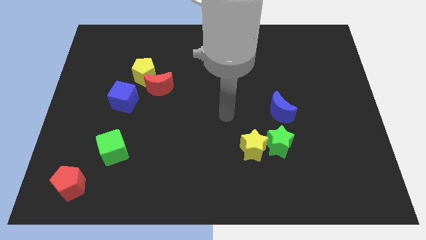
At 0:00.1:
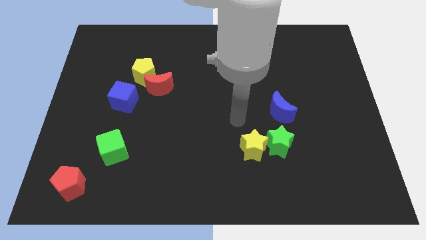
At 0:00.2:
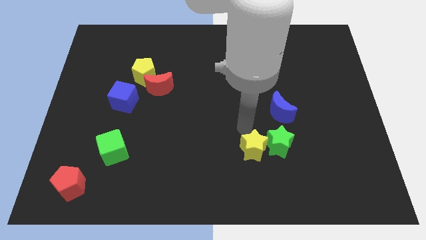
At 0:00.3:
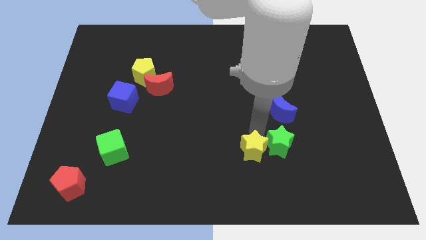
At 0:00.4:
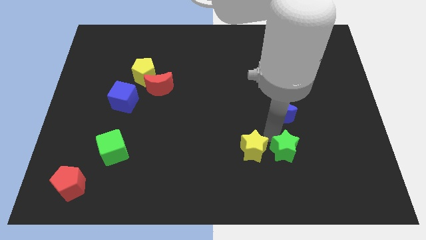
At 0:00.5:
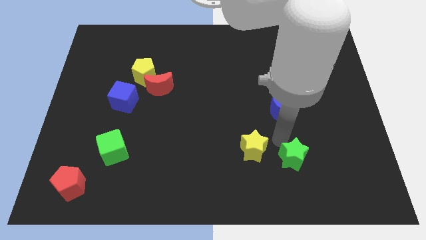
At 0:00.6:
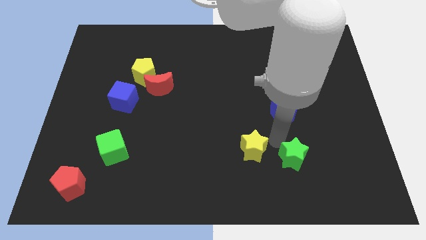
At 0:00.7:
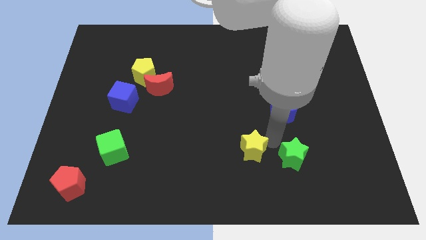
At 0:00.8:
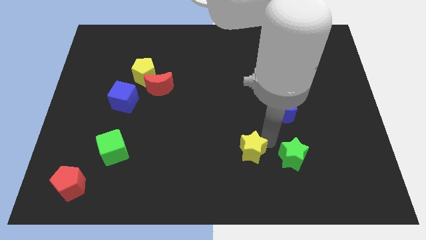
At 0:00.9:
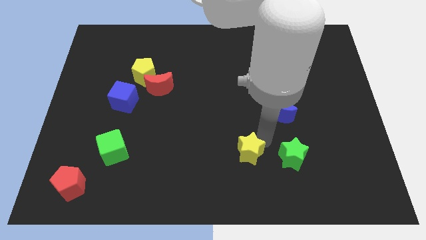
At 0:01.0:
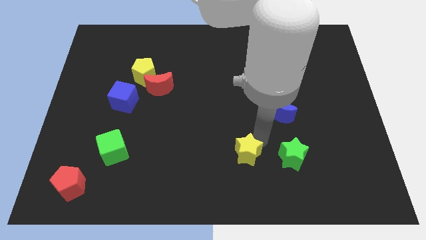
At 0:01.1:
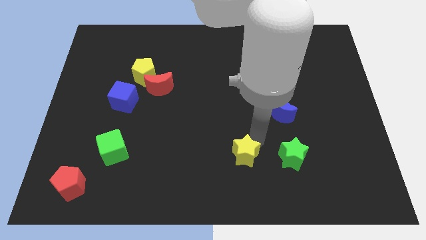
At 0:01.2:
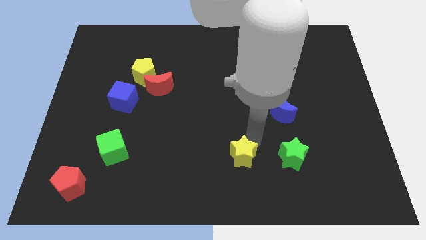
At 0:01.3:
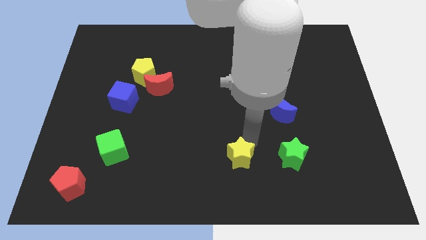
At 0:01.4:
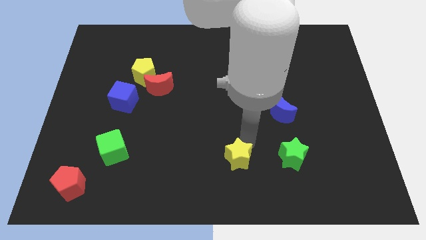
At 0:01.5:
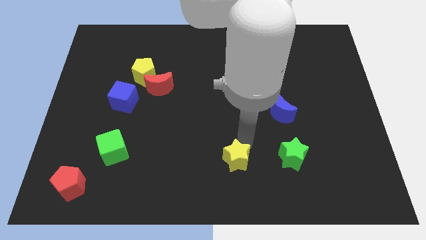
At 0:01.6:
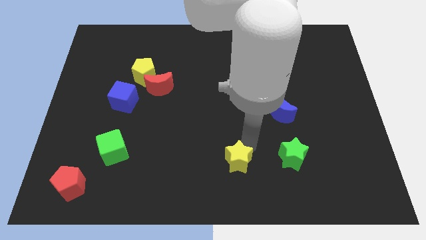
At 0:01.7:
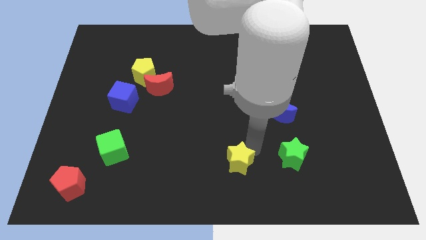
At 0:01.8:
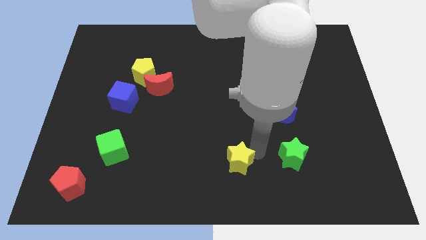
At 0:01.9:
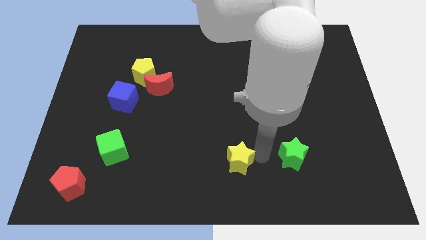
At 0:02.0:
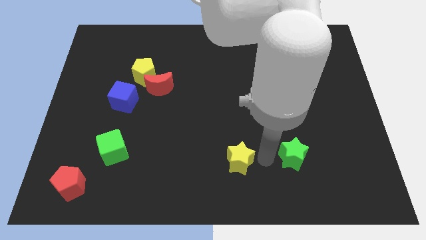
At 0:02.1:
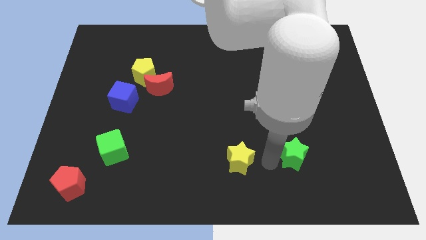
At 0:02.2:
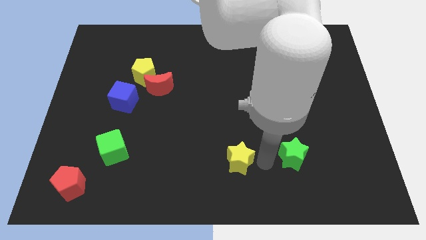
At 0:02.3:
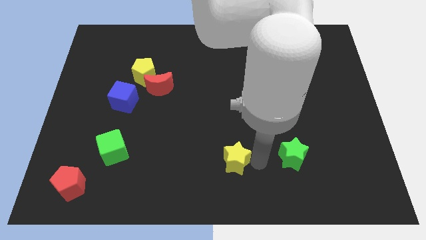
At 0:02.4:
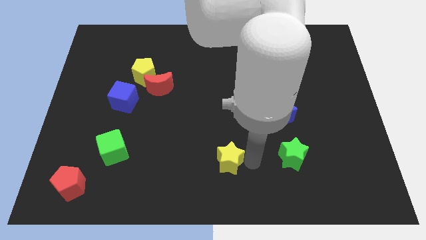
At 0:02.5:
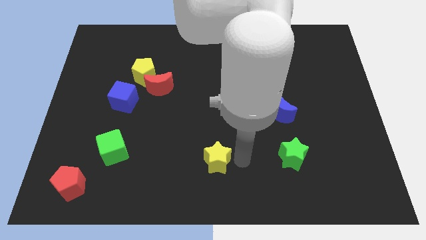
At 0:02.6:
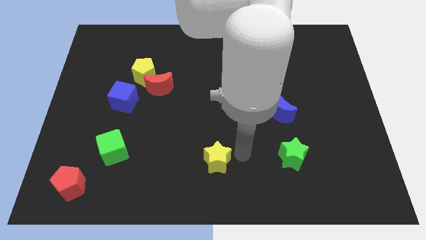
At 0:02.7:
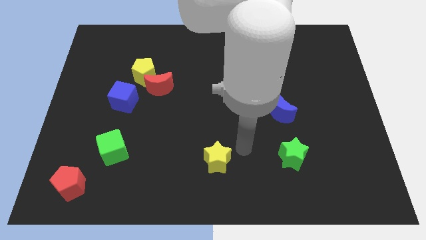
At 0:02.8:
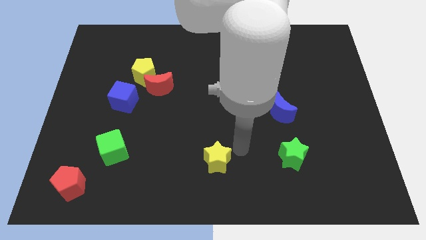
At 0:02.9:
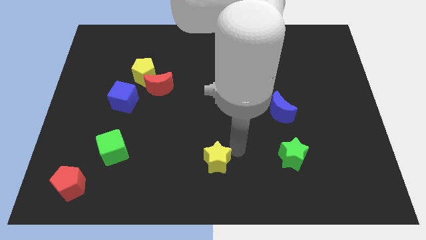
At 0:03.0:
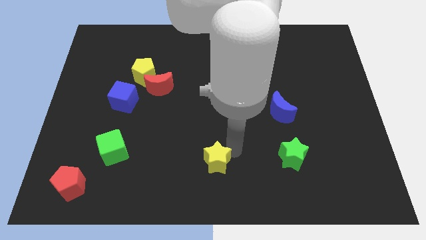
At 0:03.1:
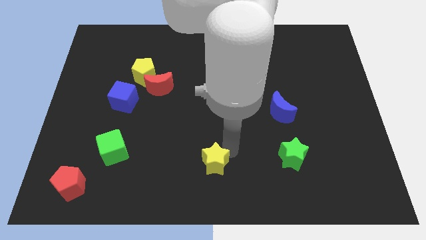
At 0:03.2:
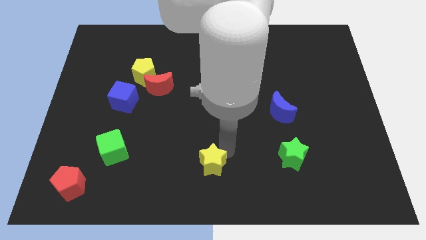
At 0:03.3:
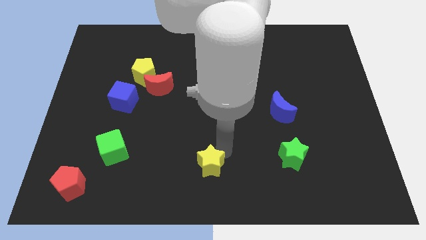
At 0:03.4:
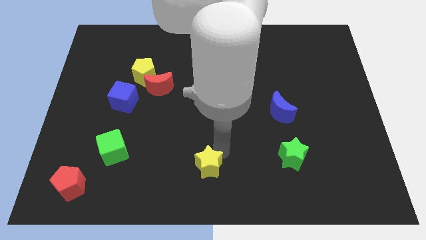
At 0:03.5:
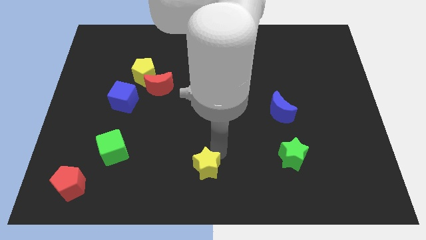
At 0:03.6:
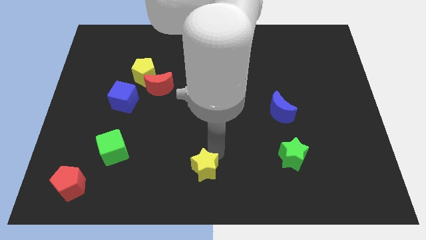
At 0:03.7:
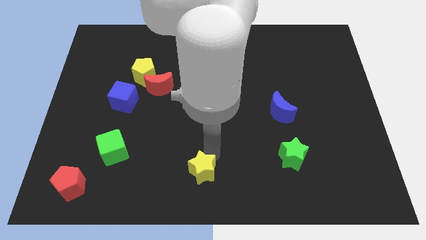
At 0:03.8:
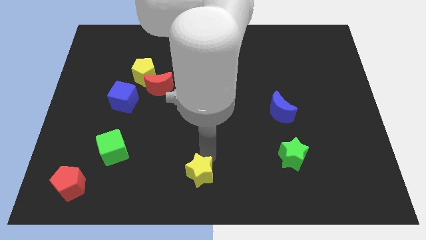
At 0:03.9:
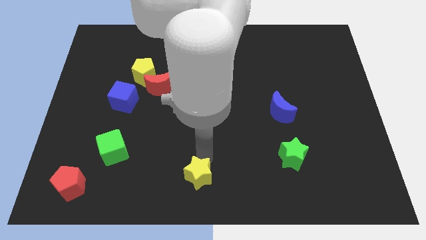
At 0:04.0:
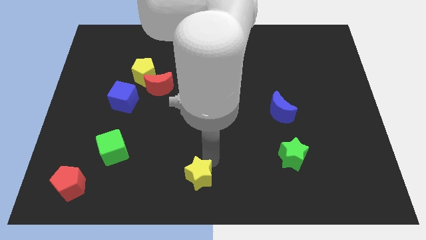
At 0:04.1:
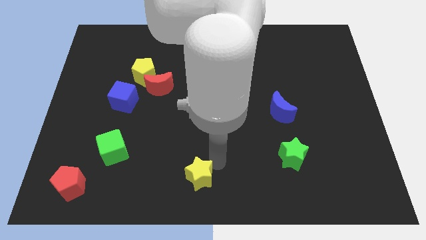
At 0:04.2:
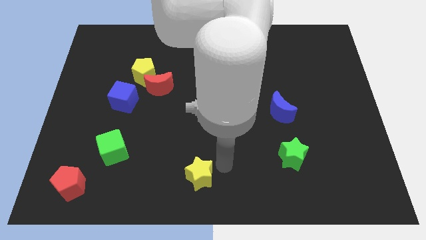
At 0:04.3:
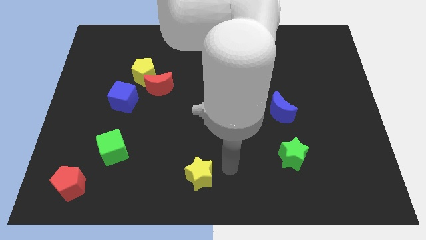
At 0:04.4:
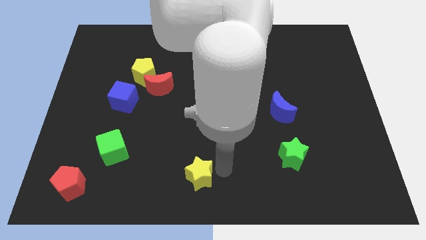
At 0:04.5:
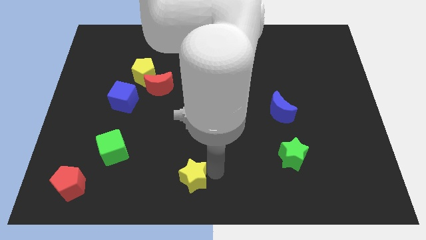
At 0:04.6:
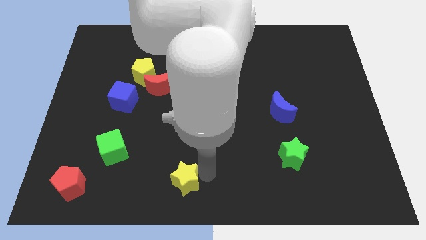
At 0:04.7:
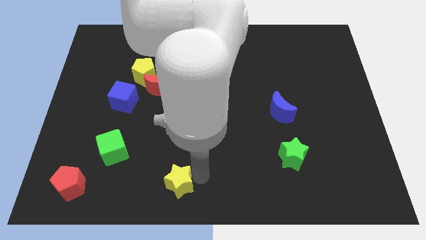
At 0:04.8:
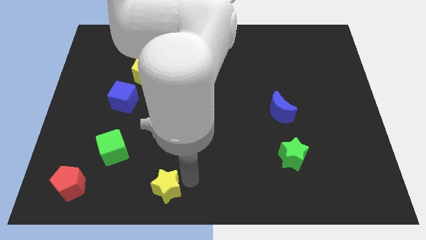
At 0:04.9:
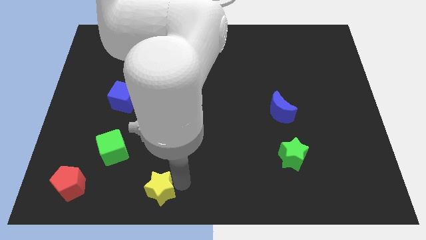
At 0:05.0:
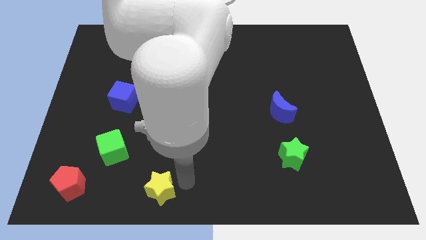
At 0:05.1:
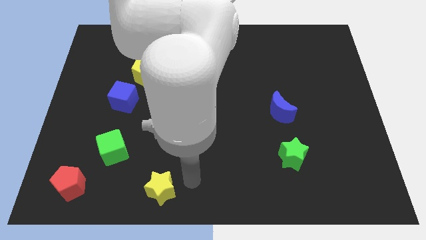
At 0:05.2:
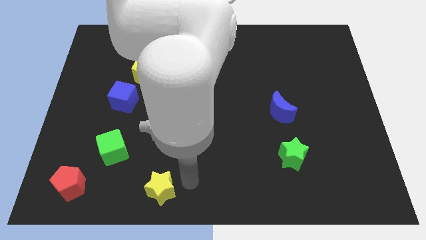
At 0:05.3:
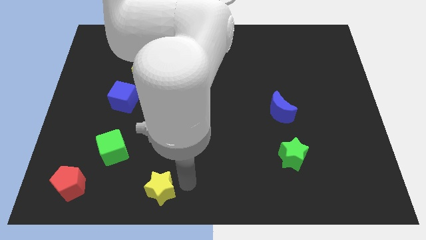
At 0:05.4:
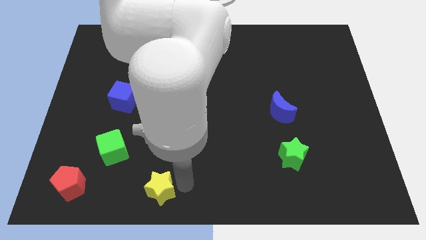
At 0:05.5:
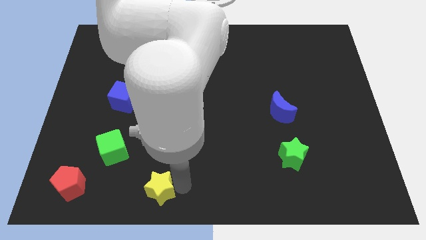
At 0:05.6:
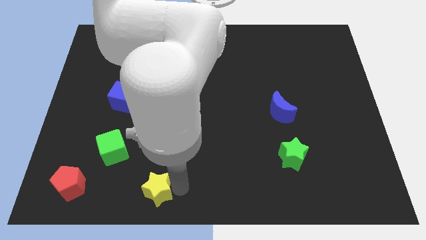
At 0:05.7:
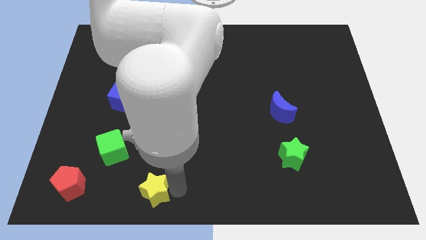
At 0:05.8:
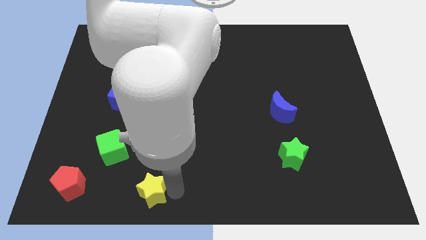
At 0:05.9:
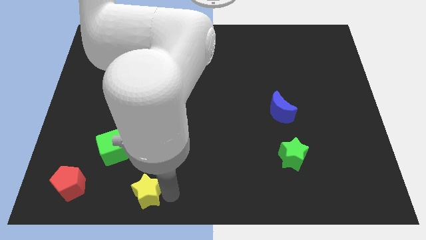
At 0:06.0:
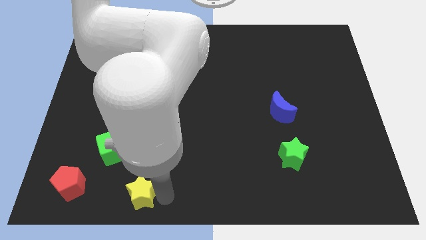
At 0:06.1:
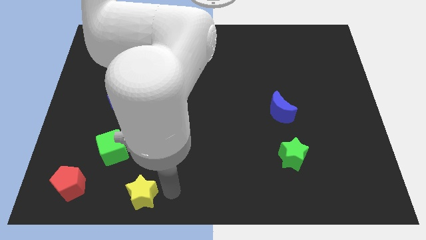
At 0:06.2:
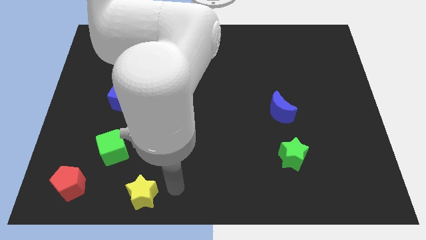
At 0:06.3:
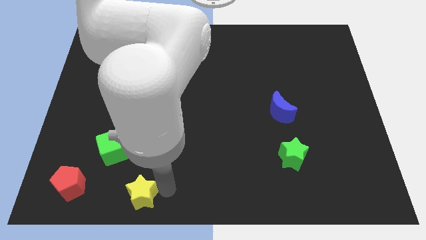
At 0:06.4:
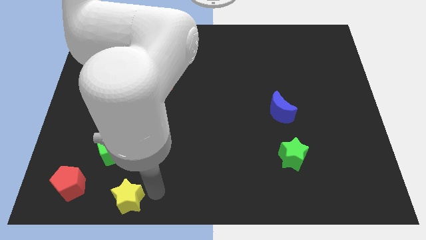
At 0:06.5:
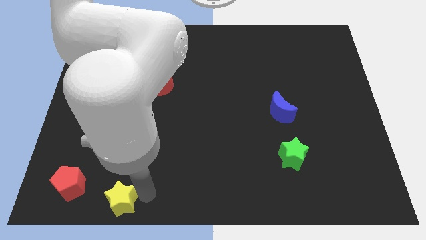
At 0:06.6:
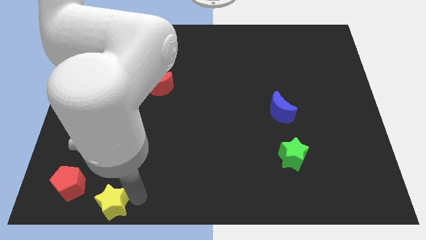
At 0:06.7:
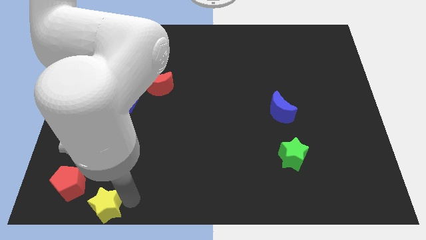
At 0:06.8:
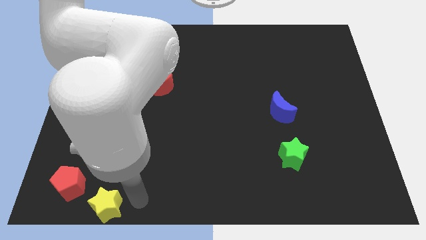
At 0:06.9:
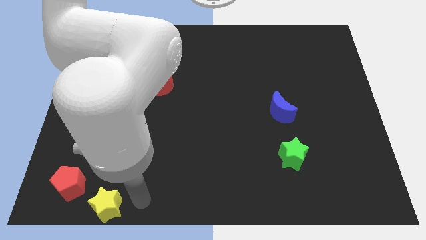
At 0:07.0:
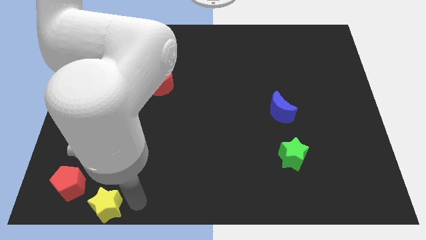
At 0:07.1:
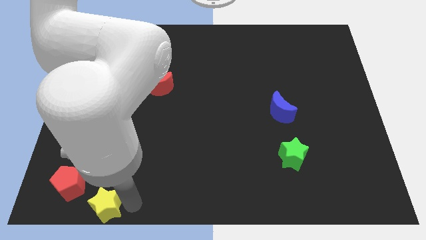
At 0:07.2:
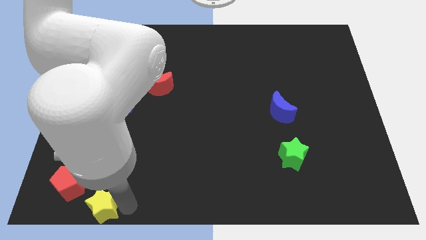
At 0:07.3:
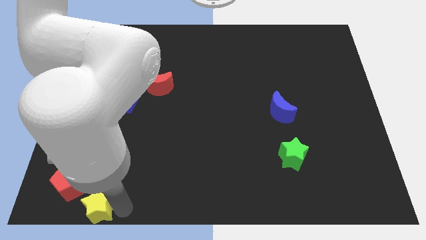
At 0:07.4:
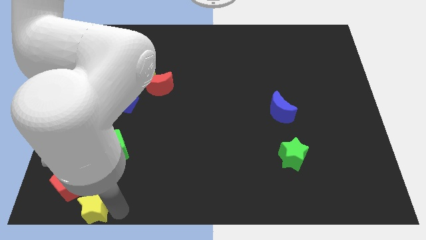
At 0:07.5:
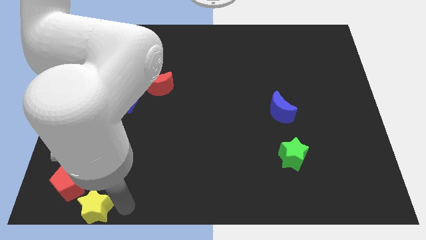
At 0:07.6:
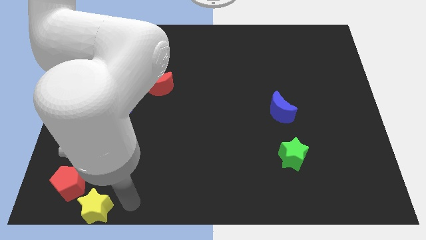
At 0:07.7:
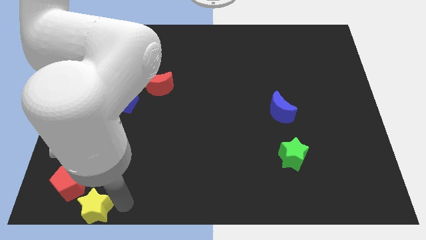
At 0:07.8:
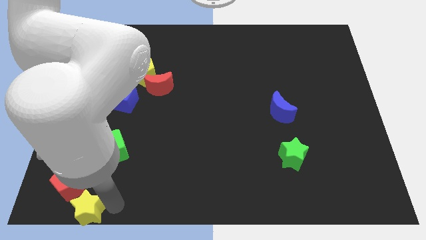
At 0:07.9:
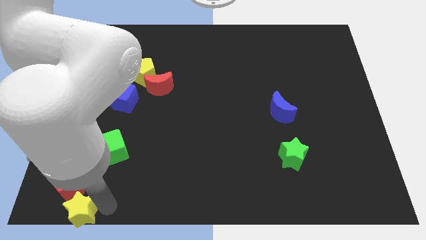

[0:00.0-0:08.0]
put the yellow star to the bottom left of the board
